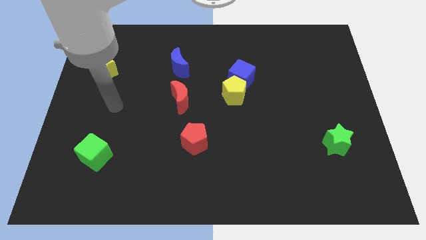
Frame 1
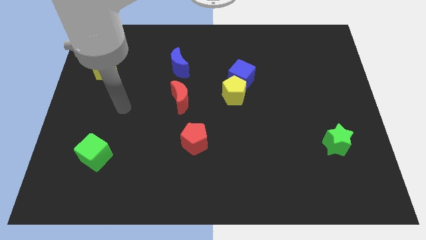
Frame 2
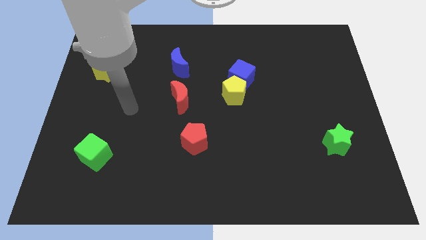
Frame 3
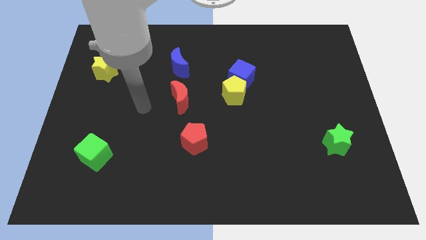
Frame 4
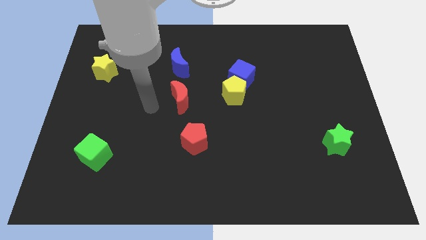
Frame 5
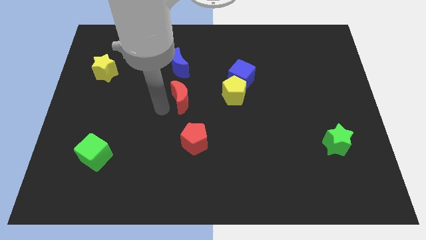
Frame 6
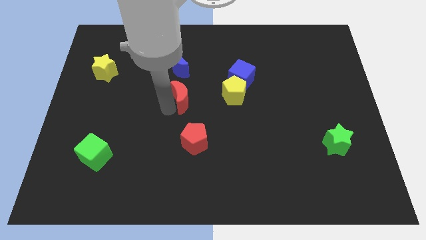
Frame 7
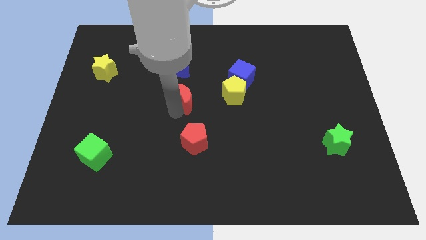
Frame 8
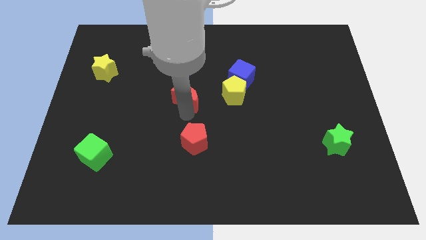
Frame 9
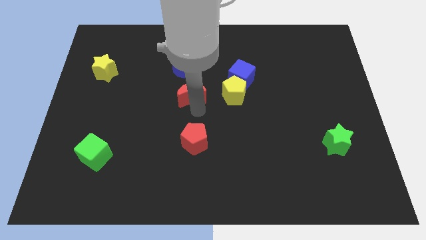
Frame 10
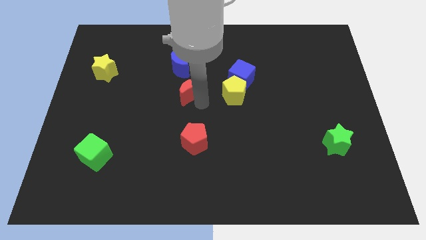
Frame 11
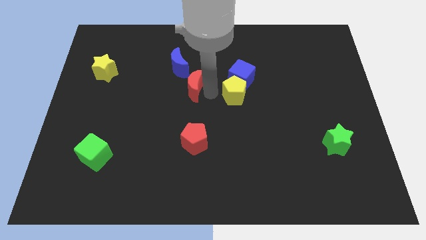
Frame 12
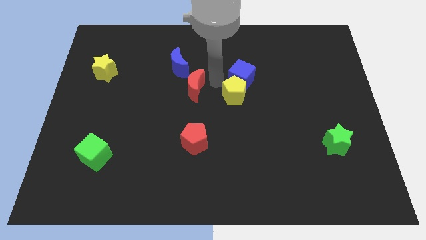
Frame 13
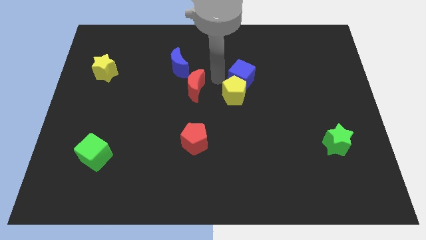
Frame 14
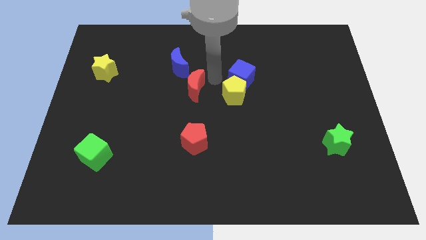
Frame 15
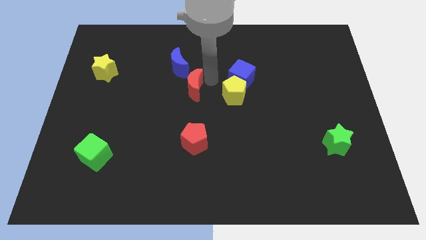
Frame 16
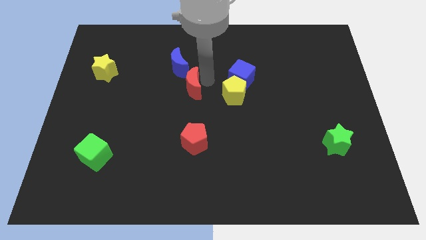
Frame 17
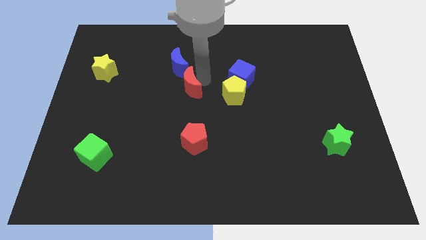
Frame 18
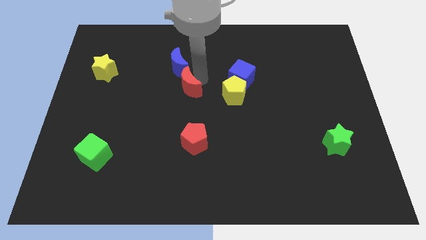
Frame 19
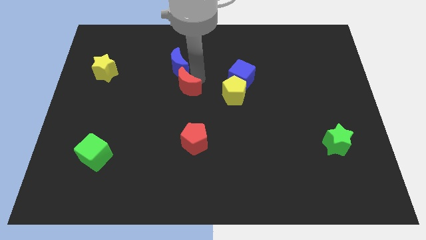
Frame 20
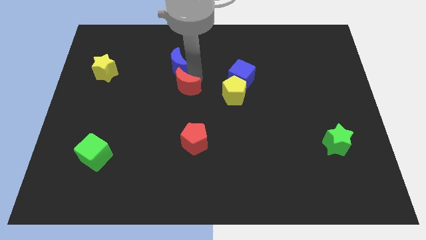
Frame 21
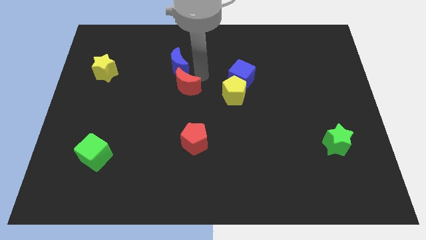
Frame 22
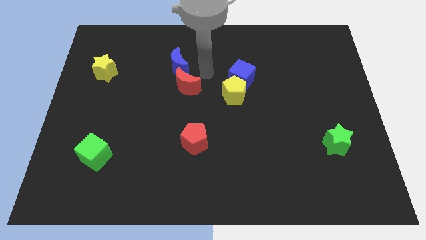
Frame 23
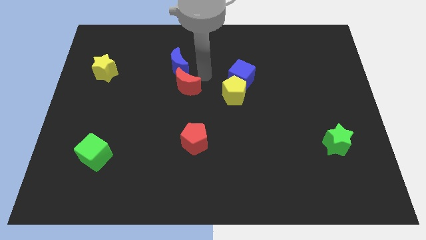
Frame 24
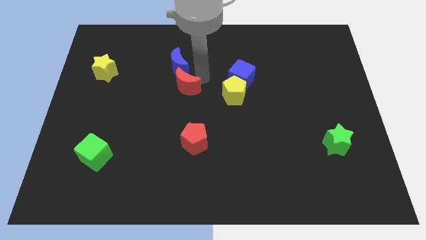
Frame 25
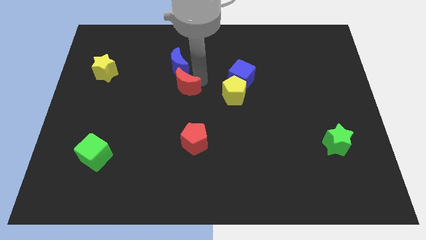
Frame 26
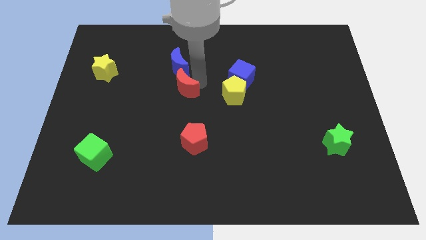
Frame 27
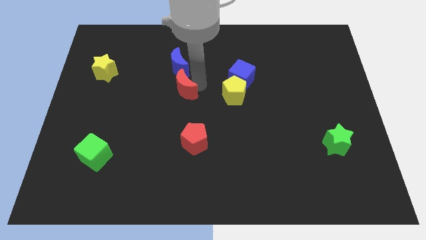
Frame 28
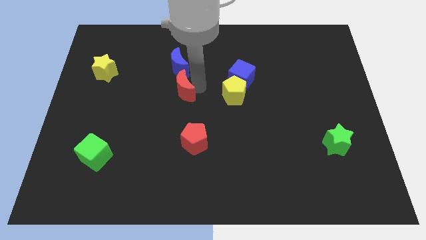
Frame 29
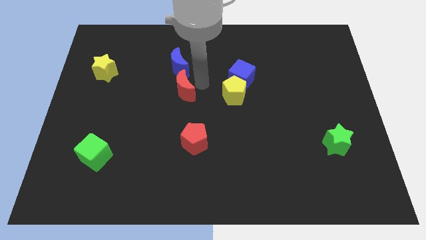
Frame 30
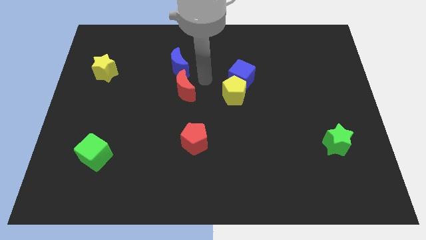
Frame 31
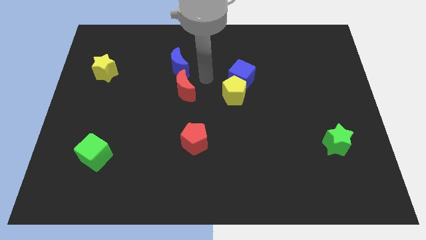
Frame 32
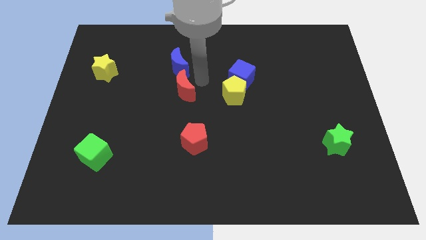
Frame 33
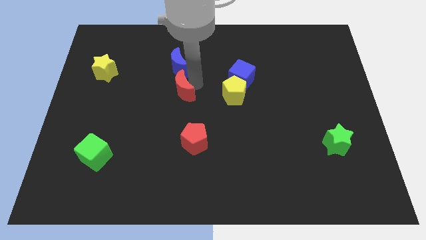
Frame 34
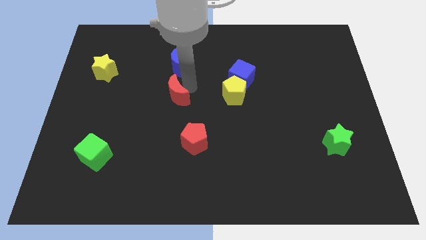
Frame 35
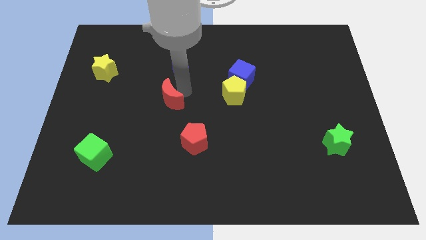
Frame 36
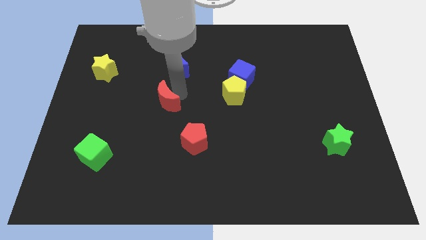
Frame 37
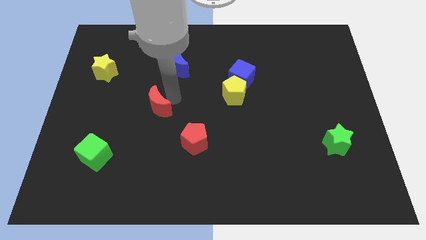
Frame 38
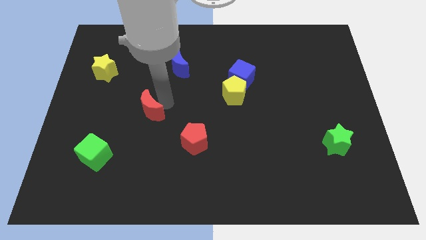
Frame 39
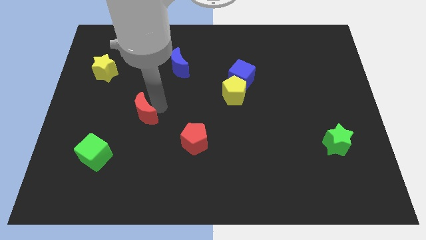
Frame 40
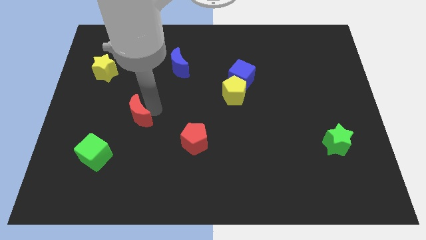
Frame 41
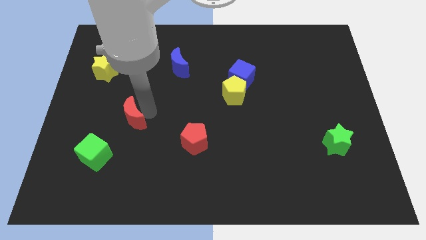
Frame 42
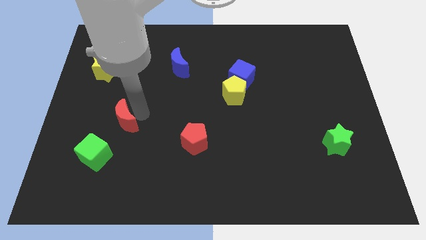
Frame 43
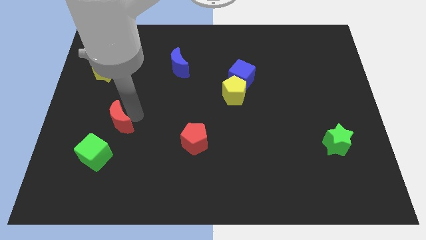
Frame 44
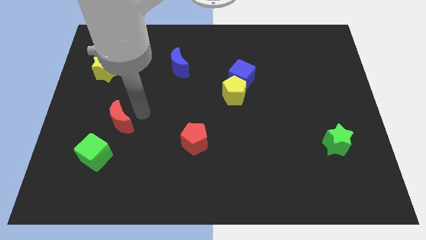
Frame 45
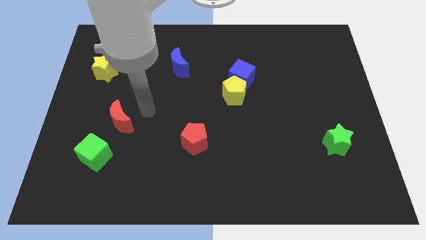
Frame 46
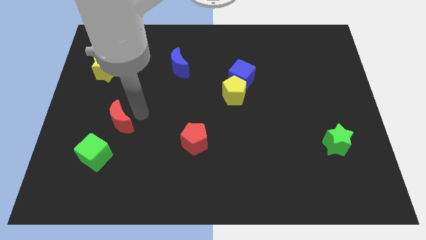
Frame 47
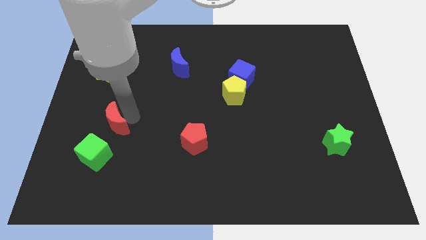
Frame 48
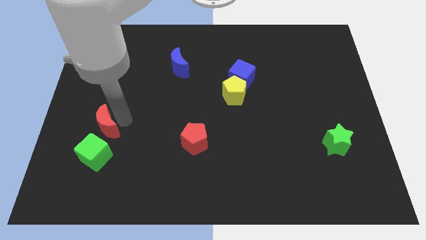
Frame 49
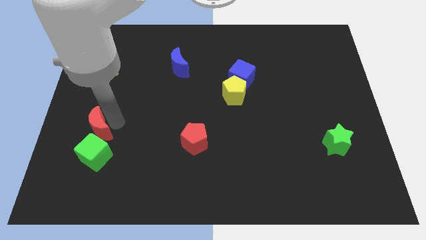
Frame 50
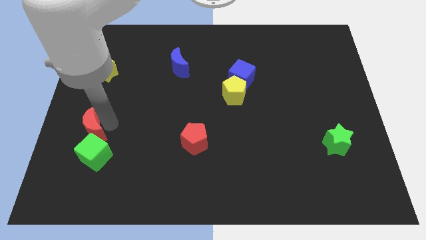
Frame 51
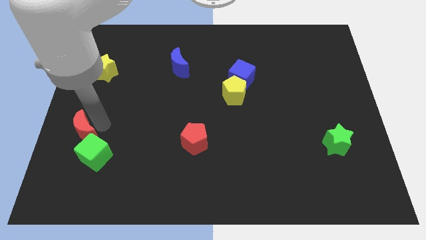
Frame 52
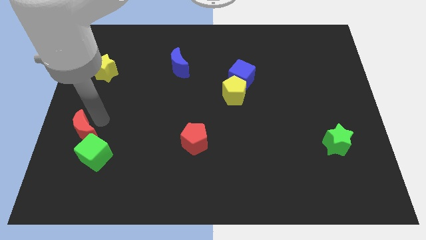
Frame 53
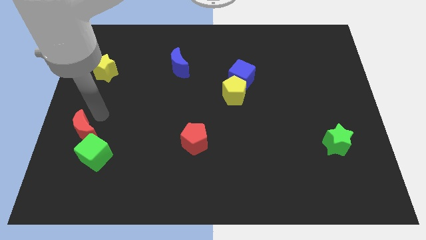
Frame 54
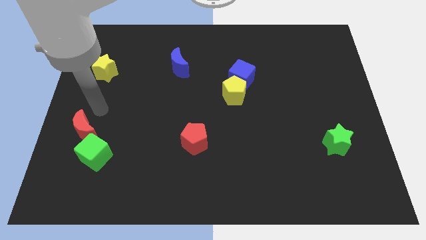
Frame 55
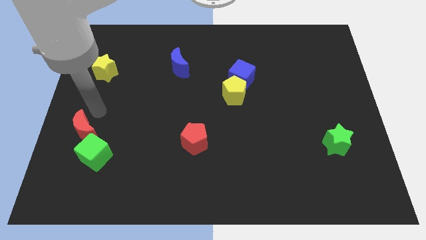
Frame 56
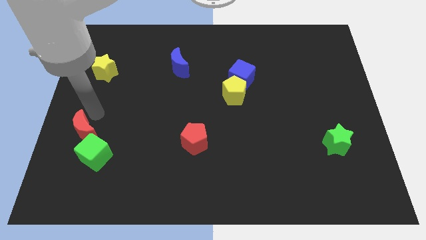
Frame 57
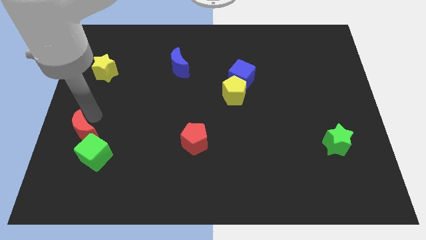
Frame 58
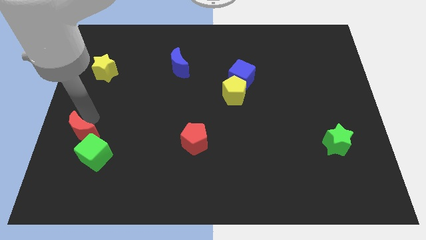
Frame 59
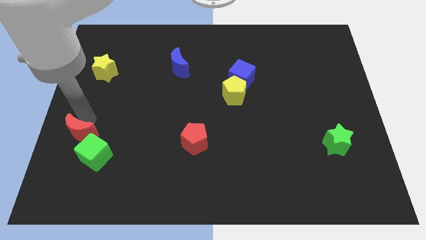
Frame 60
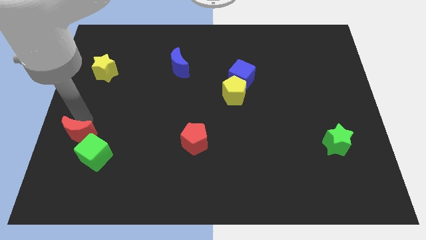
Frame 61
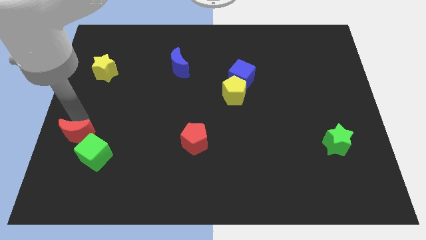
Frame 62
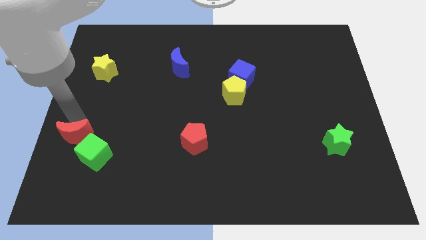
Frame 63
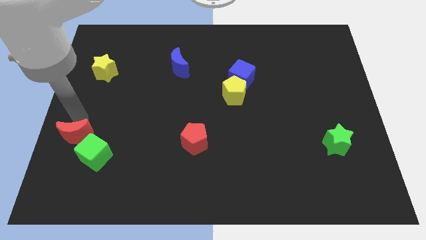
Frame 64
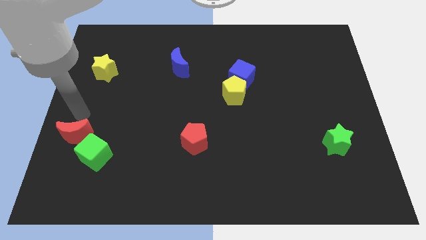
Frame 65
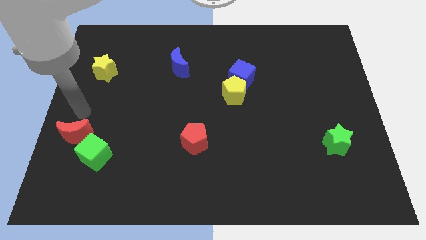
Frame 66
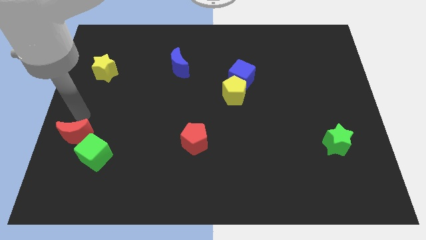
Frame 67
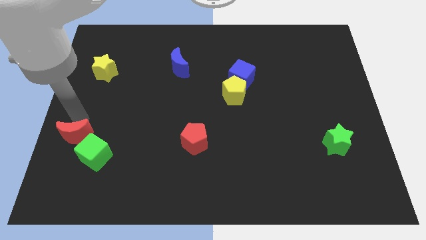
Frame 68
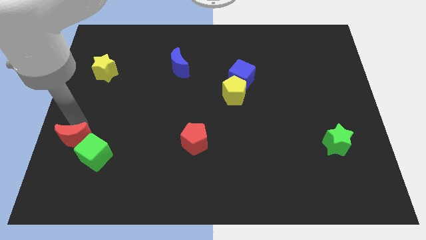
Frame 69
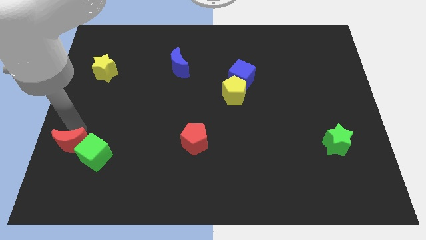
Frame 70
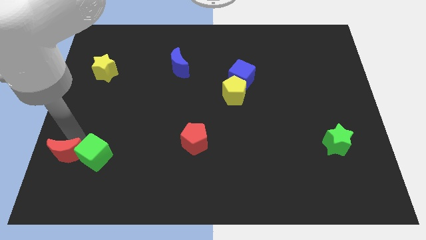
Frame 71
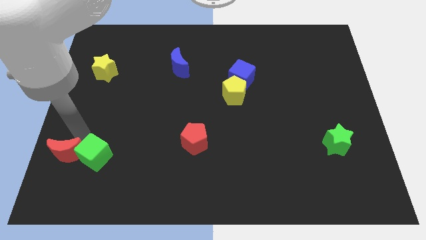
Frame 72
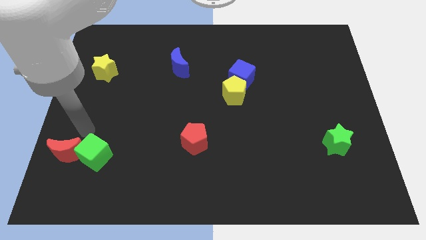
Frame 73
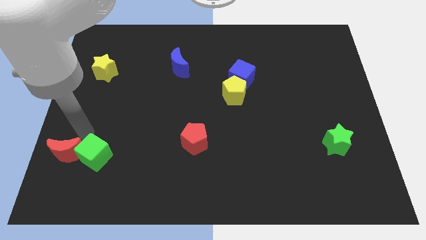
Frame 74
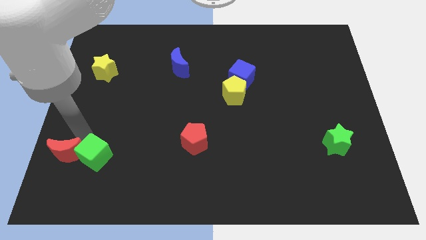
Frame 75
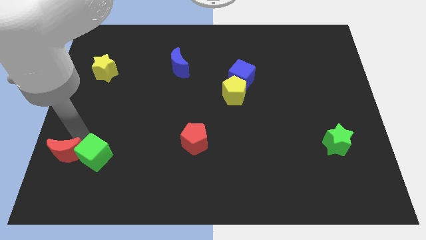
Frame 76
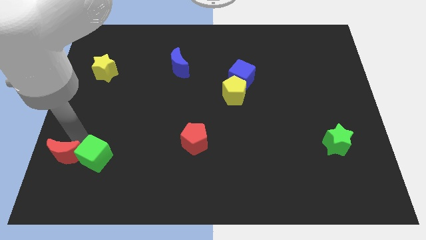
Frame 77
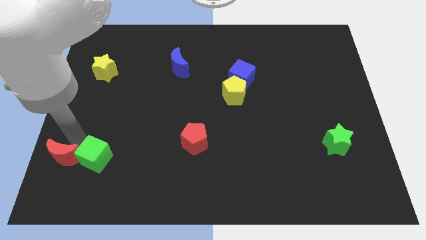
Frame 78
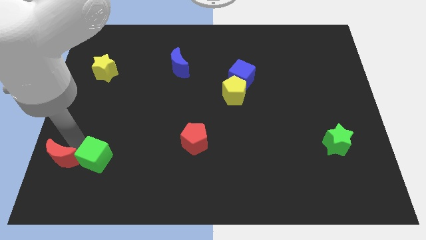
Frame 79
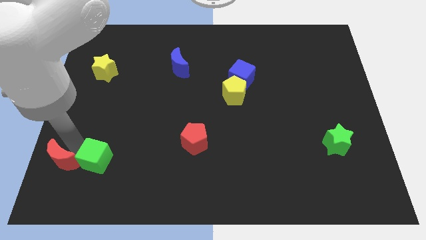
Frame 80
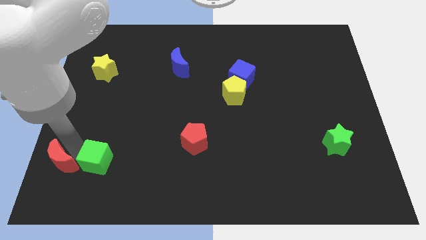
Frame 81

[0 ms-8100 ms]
slide the red moon to the lower left corner
